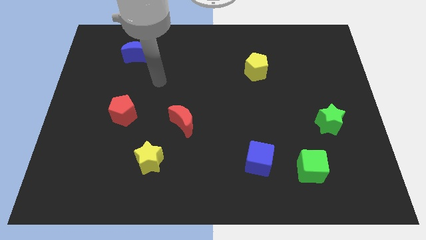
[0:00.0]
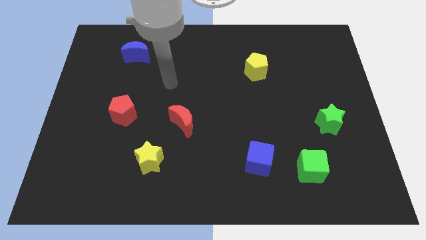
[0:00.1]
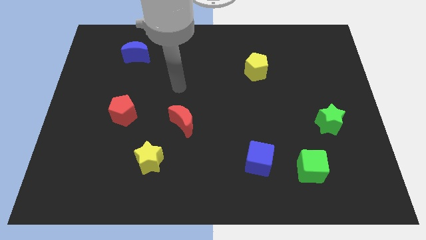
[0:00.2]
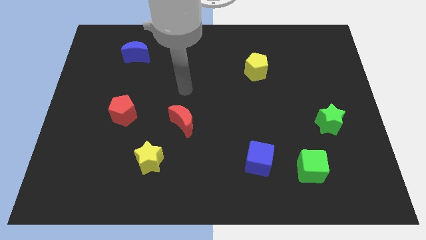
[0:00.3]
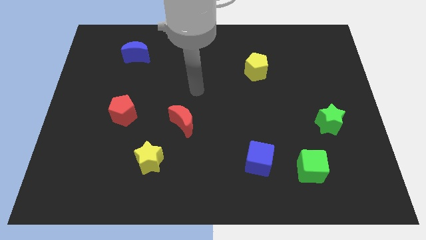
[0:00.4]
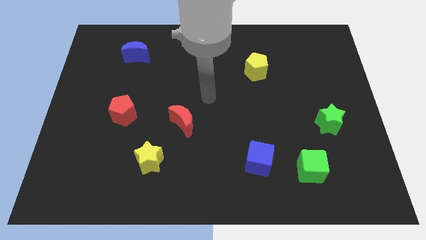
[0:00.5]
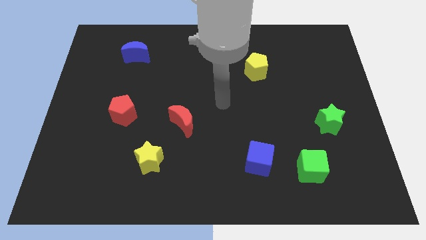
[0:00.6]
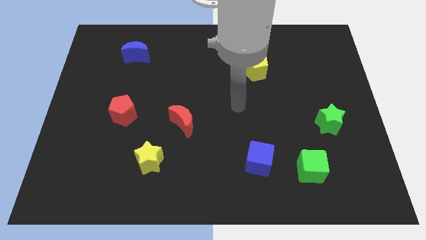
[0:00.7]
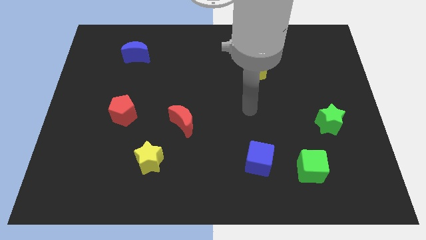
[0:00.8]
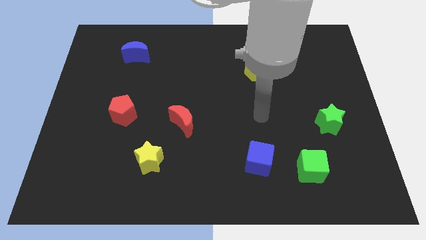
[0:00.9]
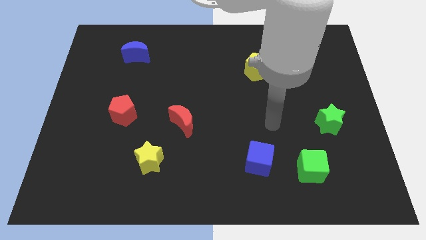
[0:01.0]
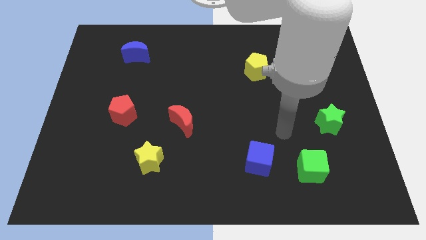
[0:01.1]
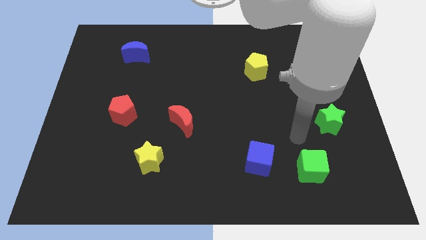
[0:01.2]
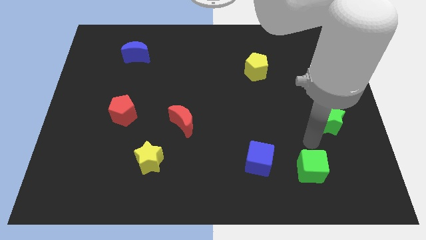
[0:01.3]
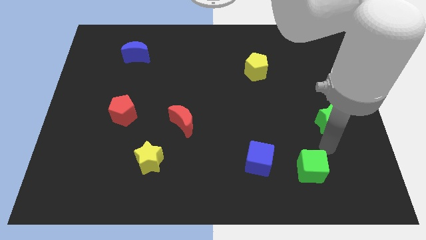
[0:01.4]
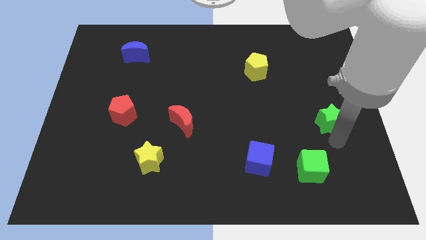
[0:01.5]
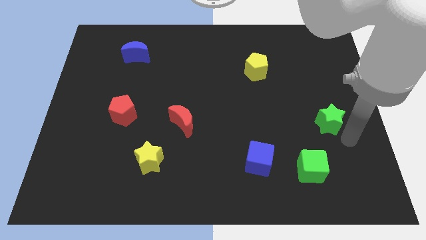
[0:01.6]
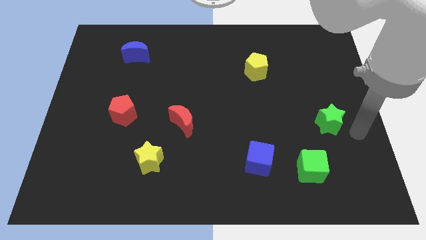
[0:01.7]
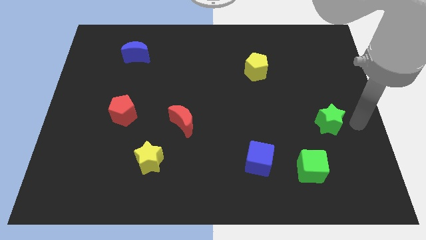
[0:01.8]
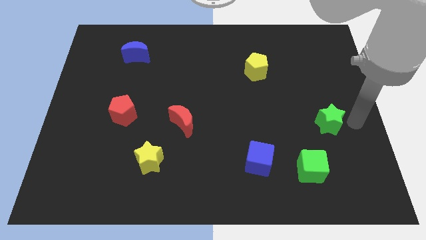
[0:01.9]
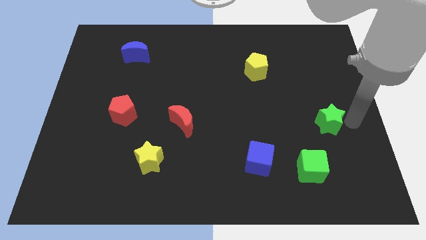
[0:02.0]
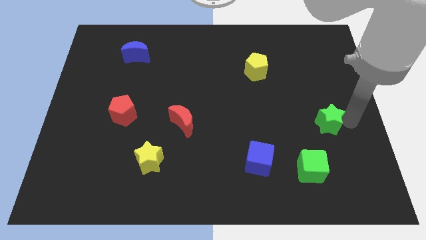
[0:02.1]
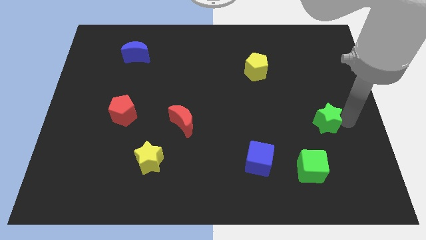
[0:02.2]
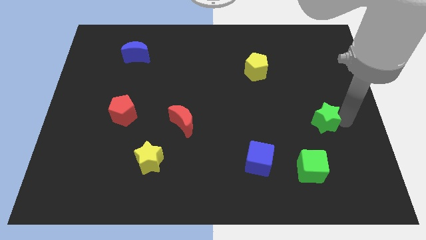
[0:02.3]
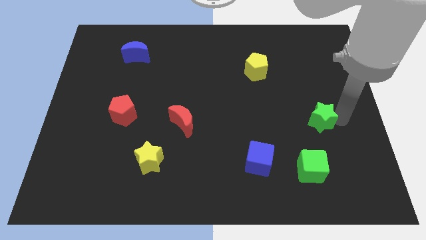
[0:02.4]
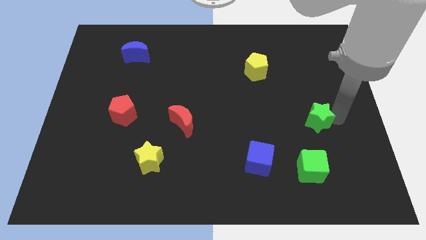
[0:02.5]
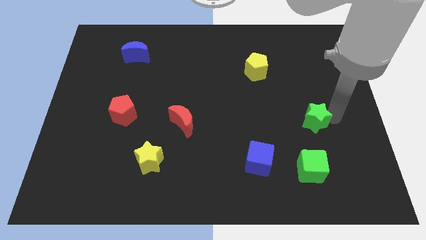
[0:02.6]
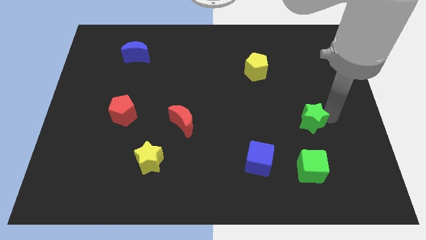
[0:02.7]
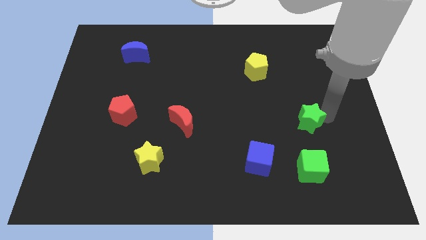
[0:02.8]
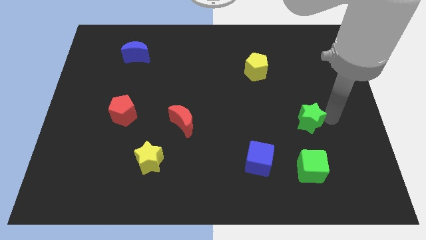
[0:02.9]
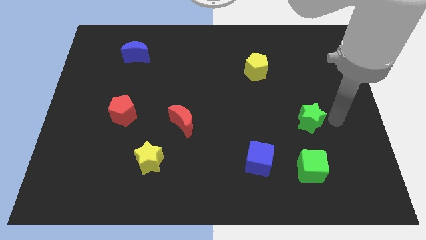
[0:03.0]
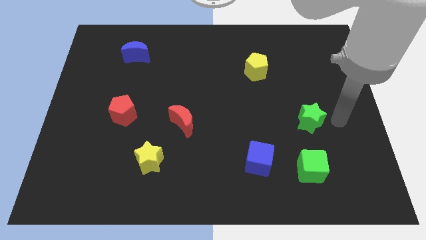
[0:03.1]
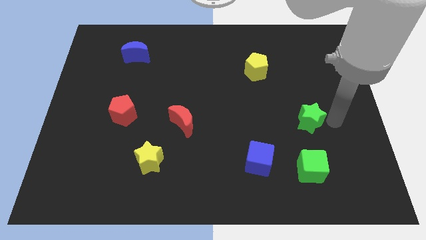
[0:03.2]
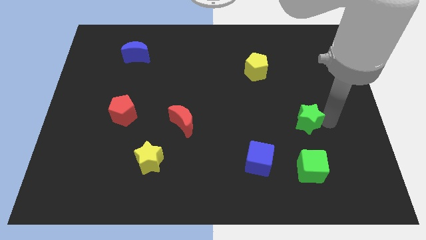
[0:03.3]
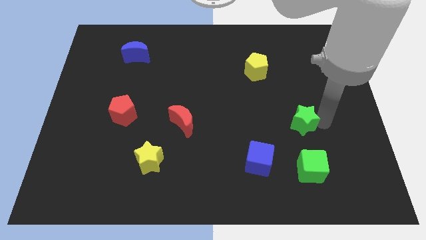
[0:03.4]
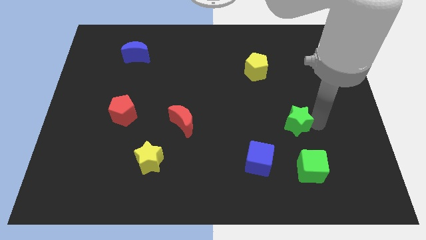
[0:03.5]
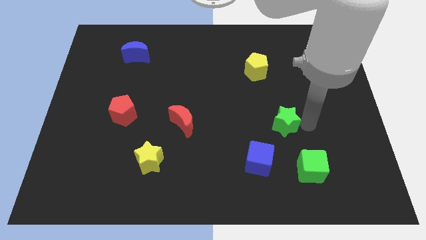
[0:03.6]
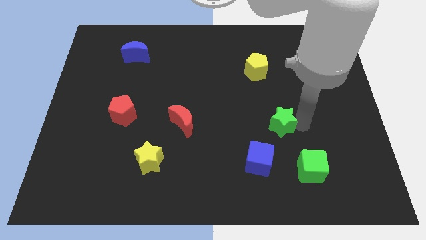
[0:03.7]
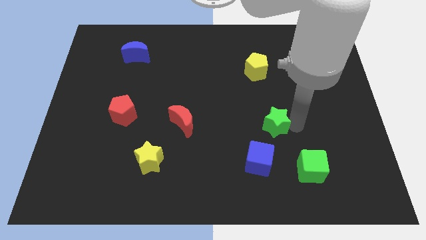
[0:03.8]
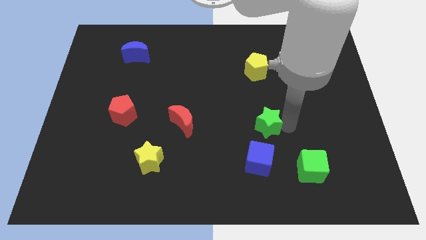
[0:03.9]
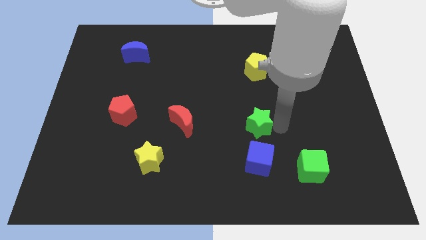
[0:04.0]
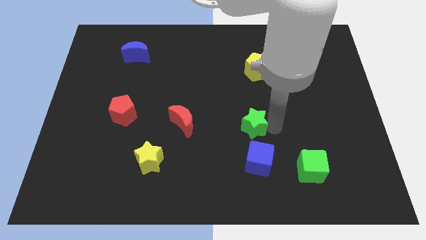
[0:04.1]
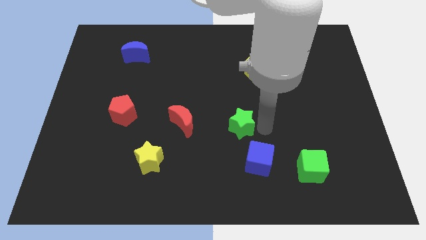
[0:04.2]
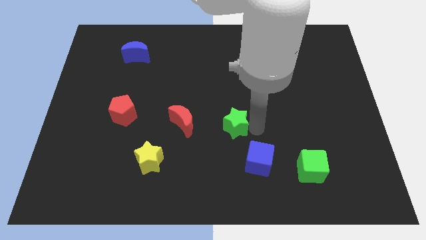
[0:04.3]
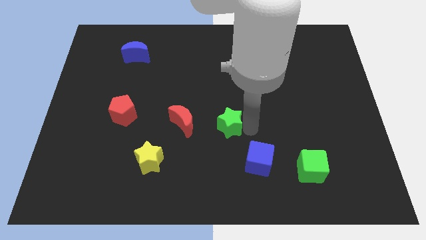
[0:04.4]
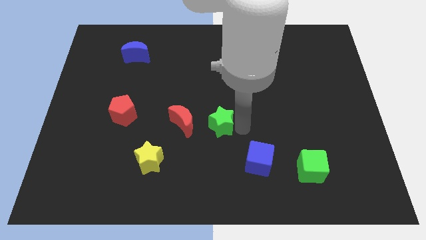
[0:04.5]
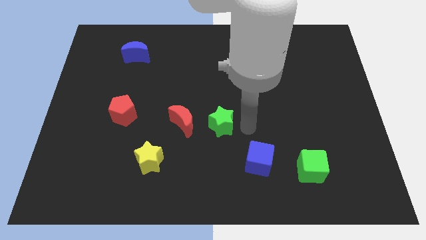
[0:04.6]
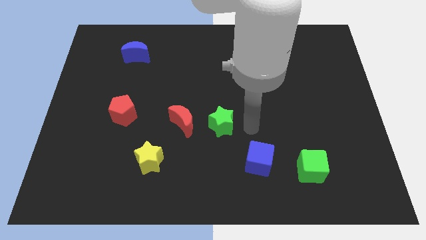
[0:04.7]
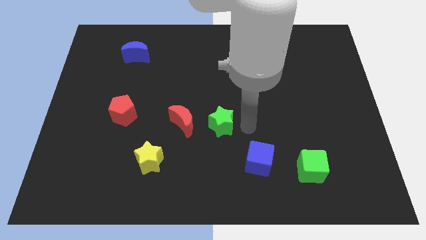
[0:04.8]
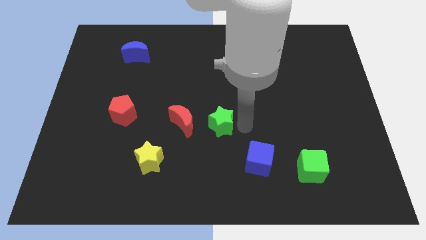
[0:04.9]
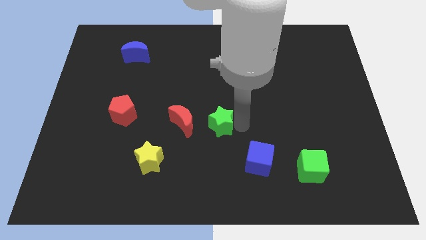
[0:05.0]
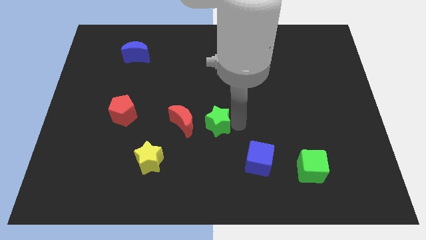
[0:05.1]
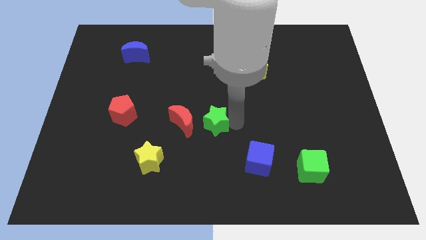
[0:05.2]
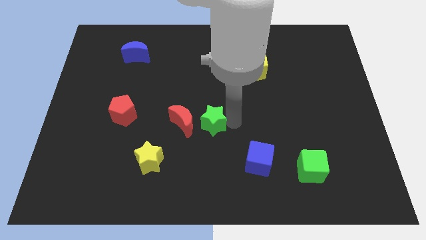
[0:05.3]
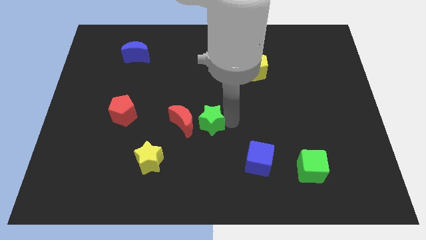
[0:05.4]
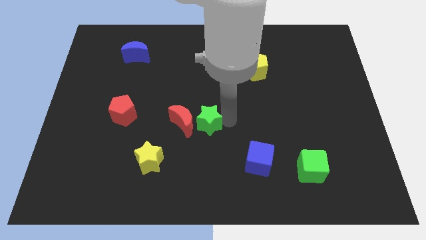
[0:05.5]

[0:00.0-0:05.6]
move the green star towards the red moon

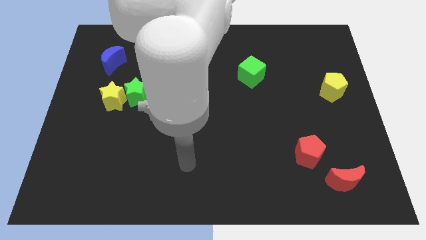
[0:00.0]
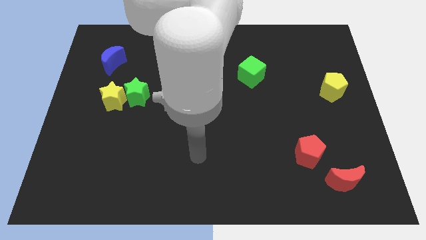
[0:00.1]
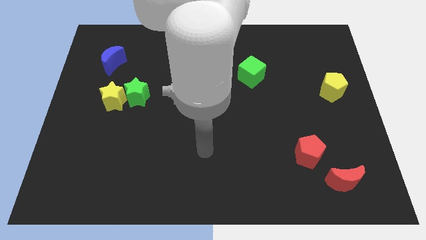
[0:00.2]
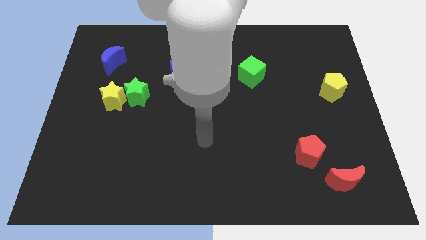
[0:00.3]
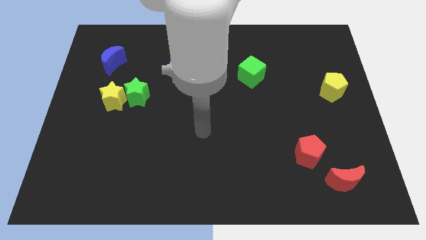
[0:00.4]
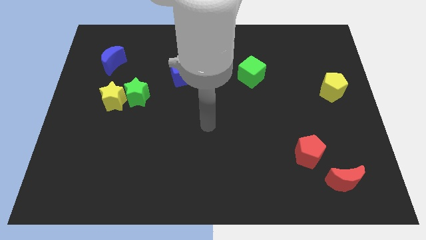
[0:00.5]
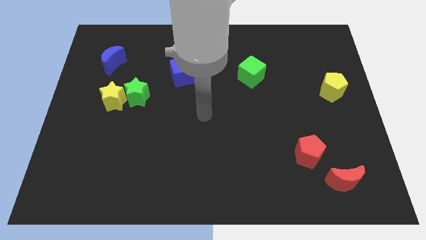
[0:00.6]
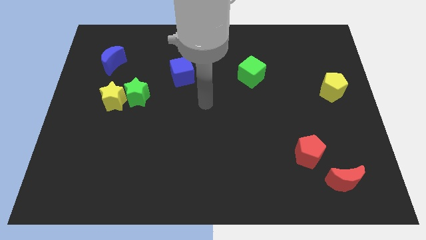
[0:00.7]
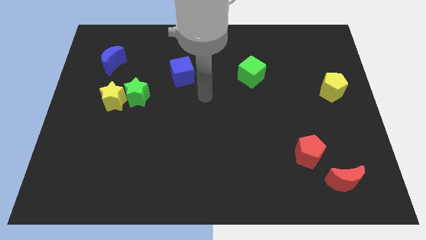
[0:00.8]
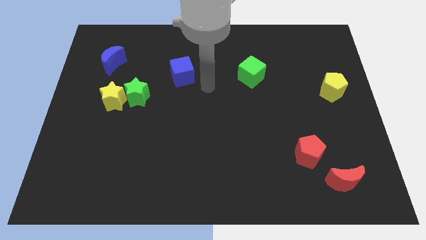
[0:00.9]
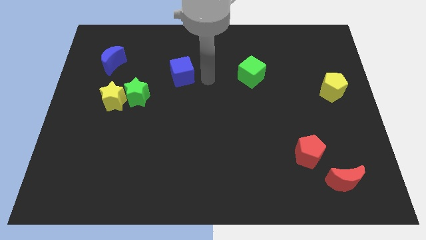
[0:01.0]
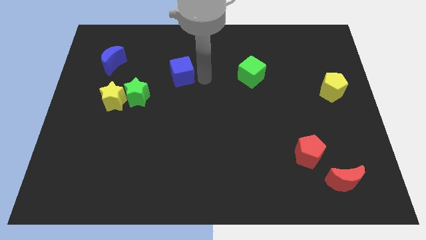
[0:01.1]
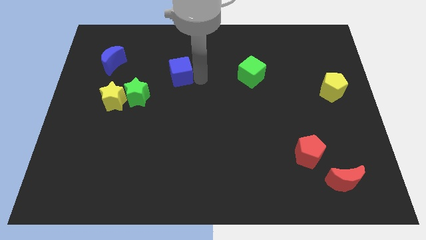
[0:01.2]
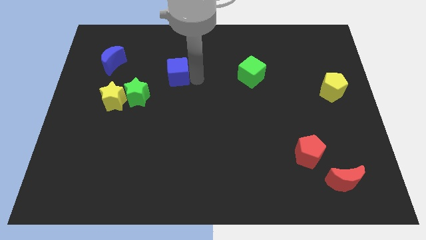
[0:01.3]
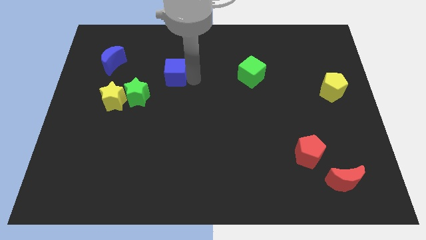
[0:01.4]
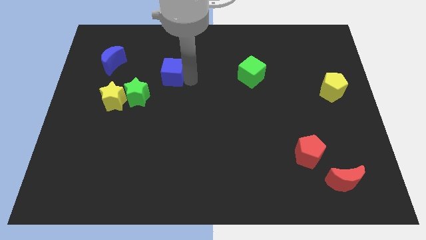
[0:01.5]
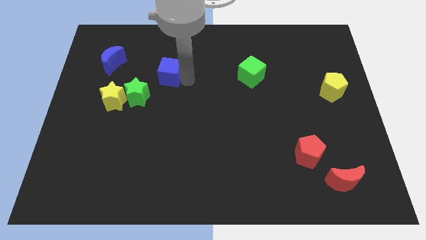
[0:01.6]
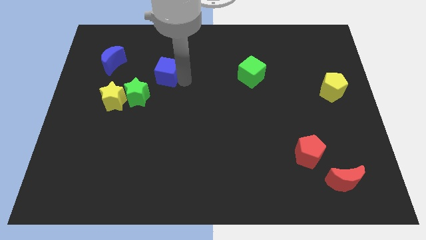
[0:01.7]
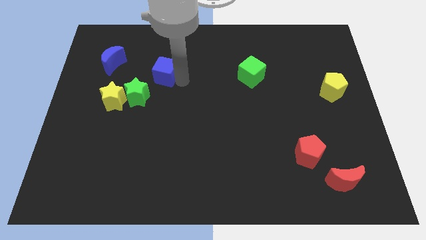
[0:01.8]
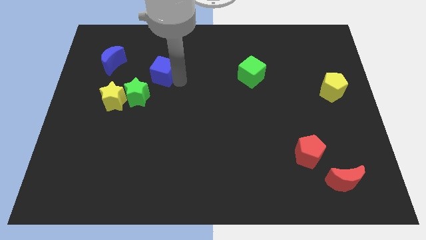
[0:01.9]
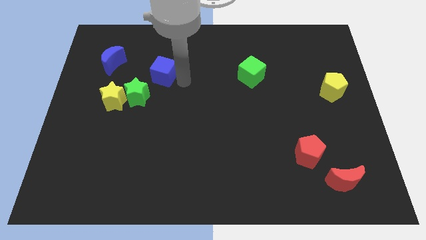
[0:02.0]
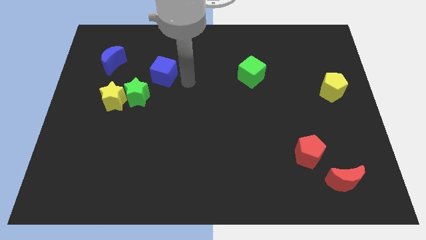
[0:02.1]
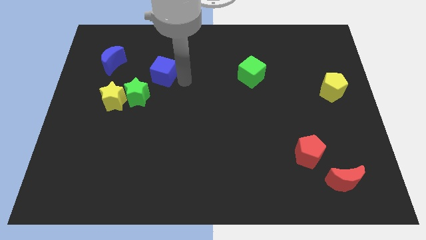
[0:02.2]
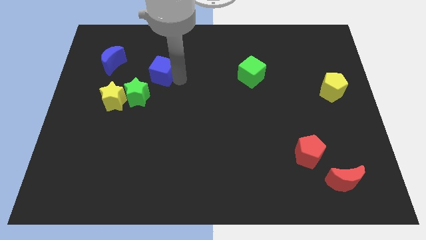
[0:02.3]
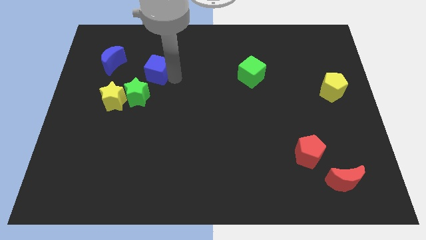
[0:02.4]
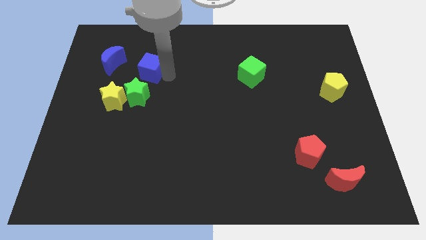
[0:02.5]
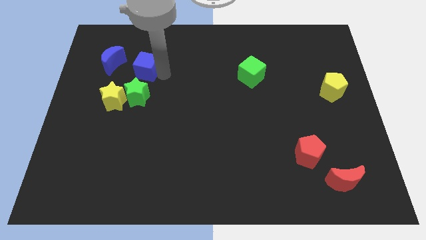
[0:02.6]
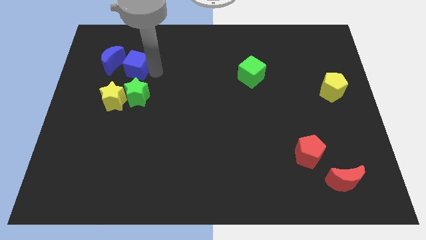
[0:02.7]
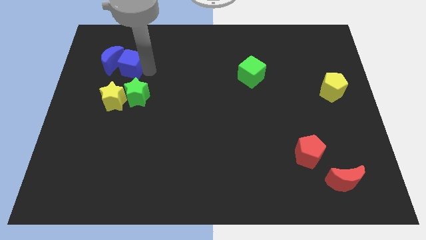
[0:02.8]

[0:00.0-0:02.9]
slide the blue cube towards the blue moon
